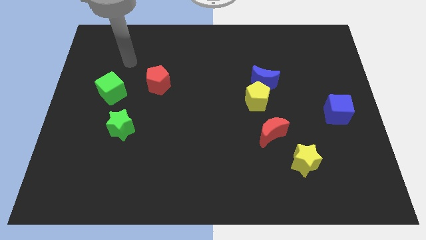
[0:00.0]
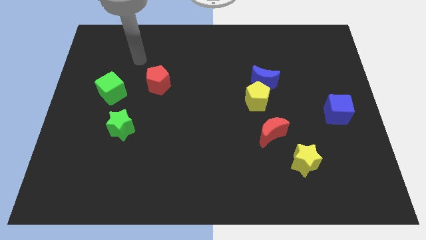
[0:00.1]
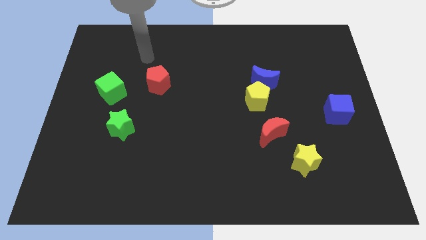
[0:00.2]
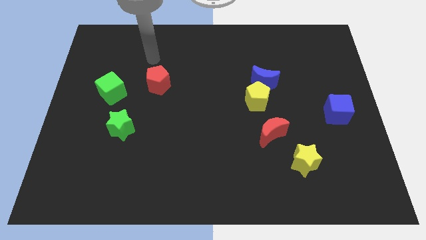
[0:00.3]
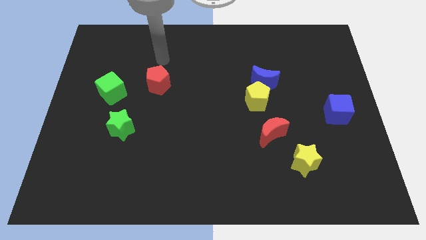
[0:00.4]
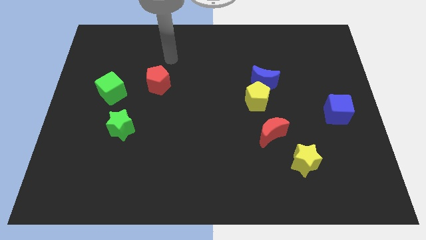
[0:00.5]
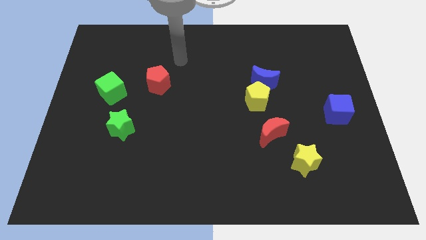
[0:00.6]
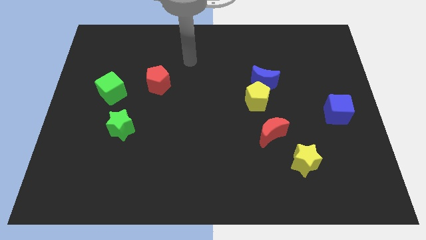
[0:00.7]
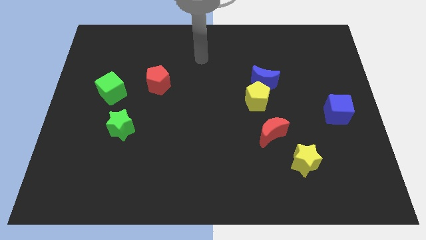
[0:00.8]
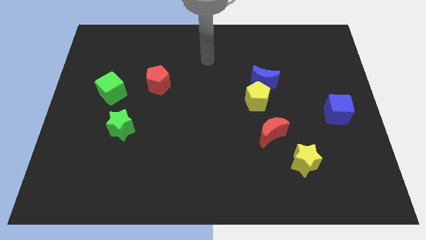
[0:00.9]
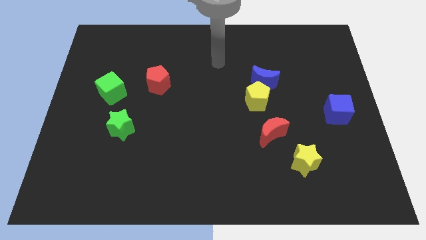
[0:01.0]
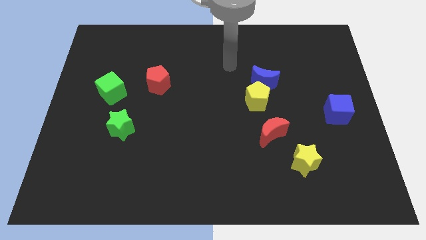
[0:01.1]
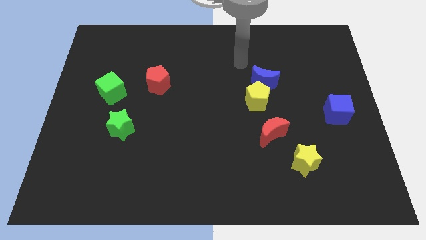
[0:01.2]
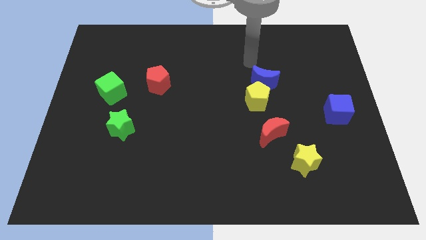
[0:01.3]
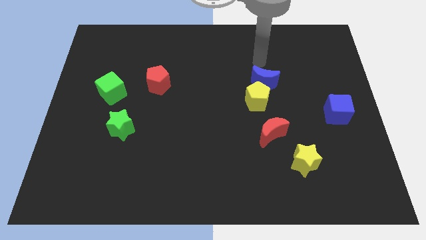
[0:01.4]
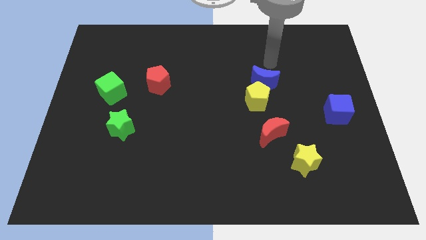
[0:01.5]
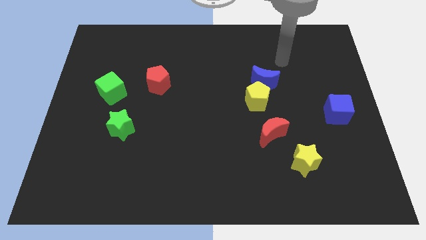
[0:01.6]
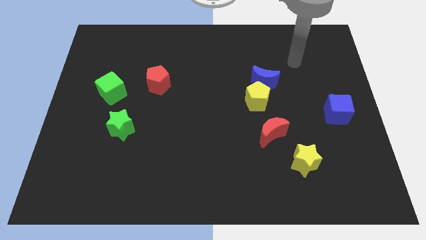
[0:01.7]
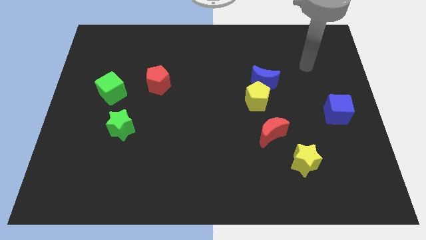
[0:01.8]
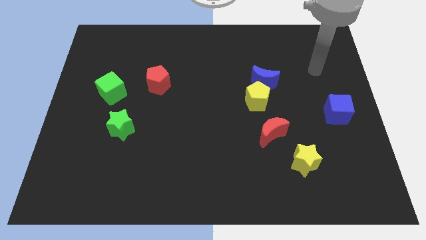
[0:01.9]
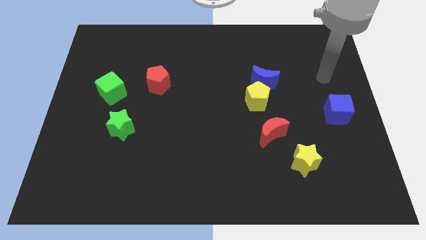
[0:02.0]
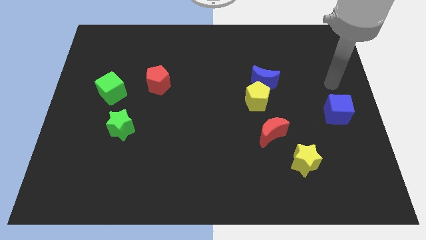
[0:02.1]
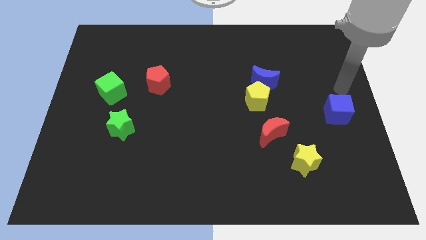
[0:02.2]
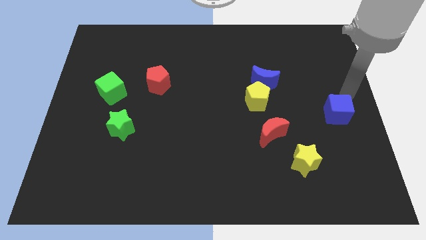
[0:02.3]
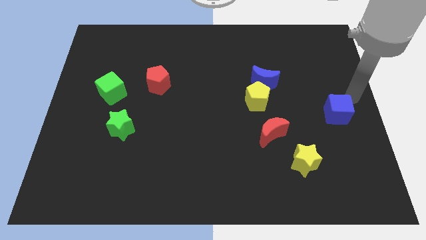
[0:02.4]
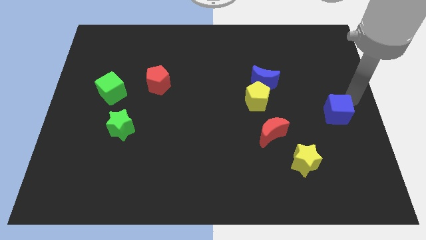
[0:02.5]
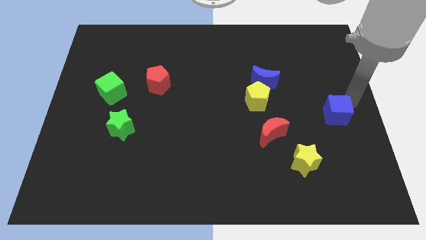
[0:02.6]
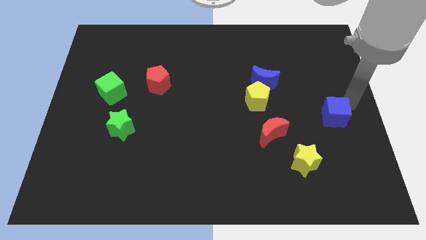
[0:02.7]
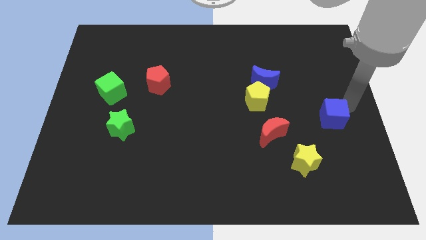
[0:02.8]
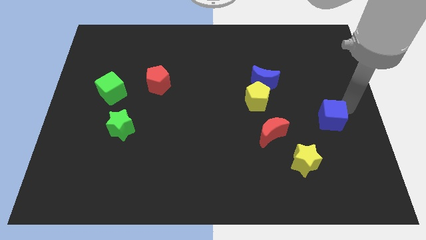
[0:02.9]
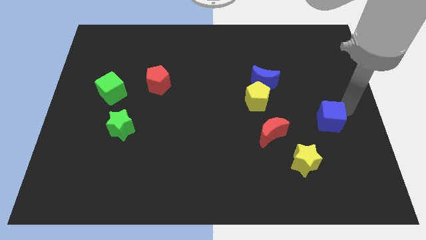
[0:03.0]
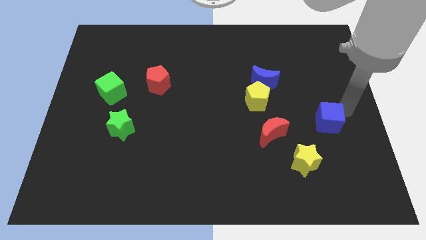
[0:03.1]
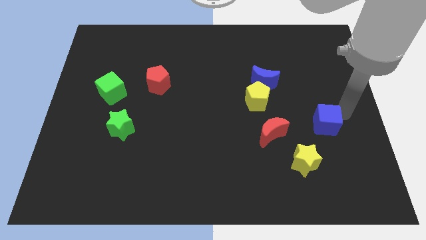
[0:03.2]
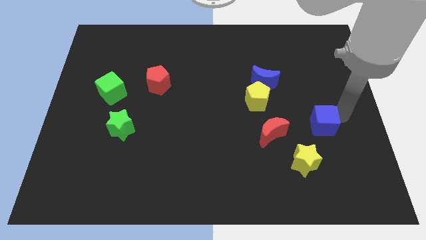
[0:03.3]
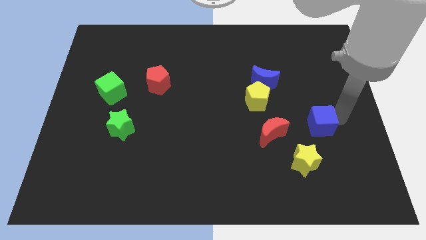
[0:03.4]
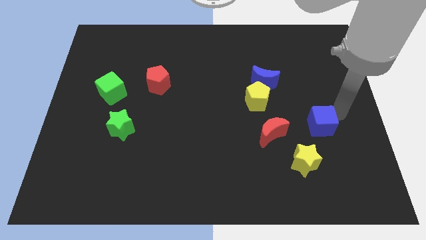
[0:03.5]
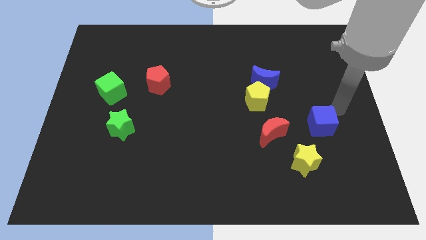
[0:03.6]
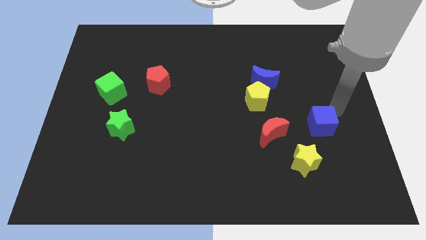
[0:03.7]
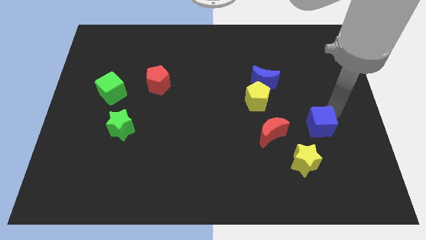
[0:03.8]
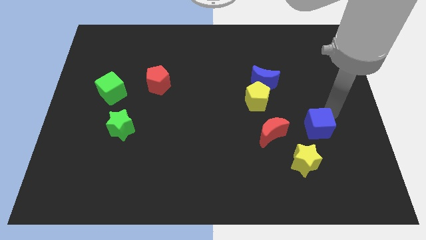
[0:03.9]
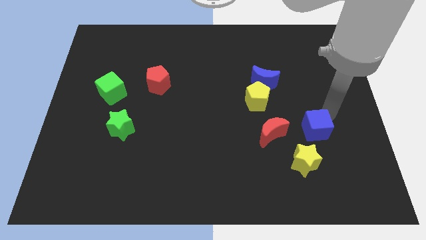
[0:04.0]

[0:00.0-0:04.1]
slightly slide the blue cube downwards and then left

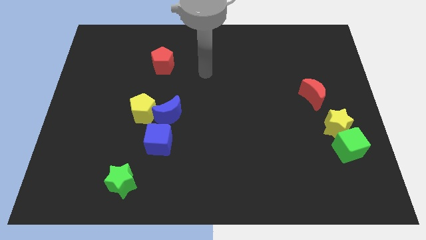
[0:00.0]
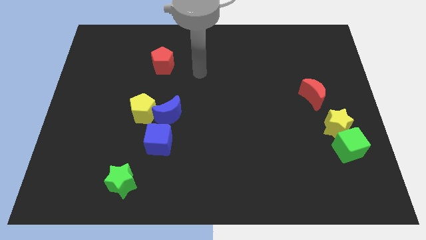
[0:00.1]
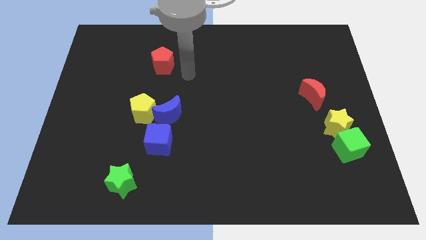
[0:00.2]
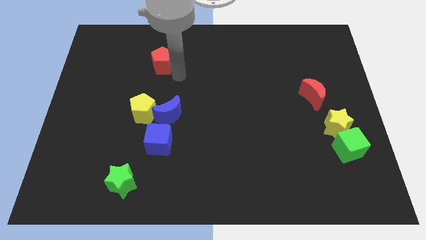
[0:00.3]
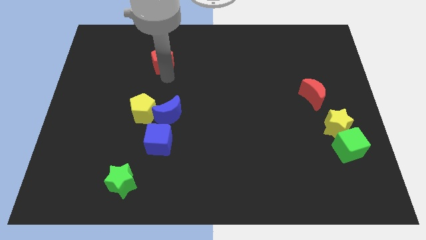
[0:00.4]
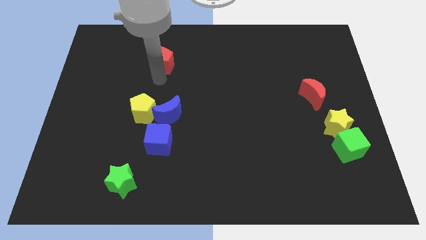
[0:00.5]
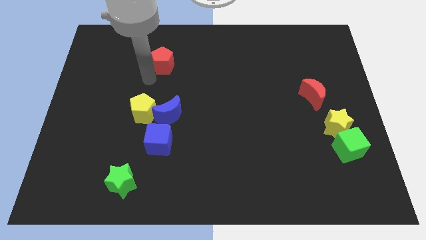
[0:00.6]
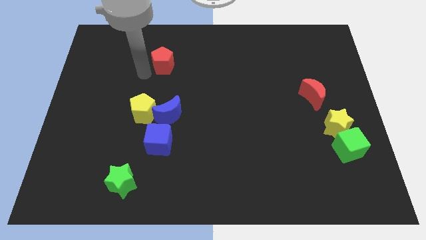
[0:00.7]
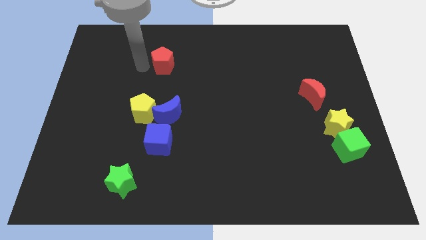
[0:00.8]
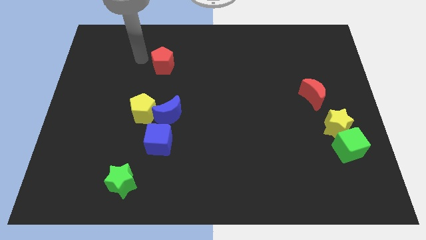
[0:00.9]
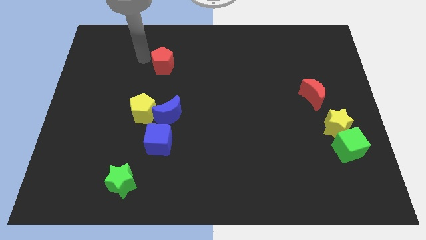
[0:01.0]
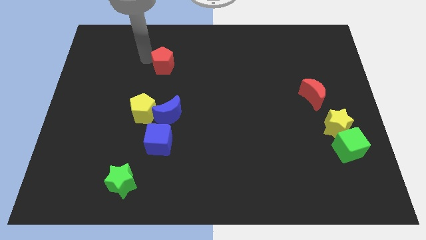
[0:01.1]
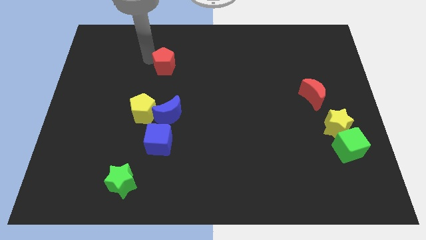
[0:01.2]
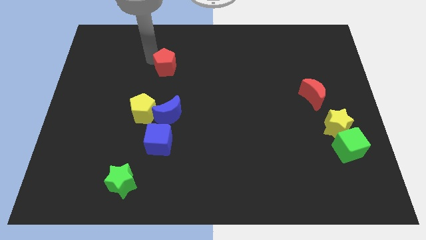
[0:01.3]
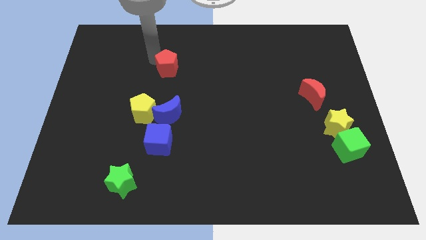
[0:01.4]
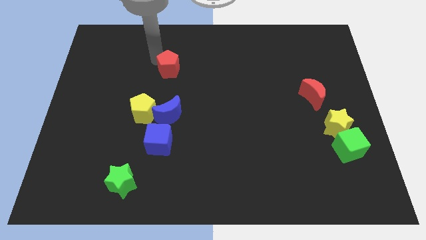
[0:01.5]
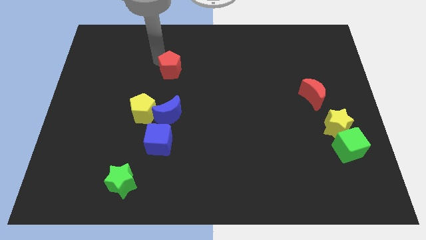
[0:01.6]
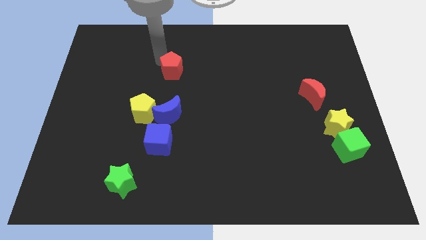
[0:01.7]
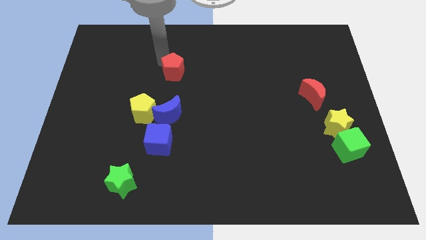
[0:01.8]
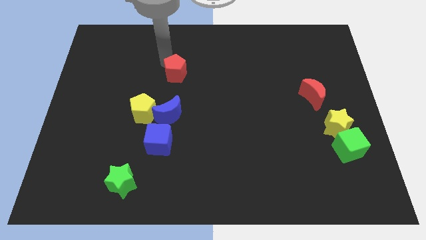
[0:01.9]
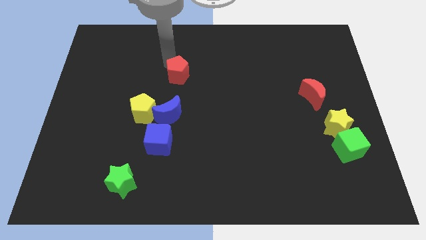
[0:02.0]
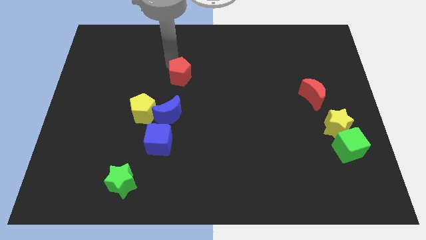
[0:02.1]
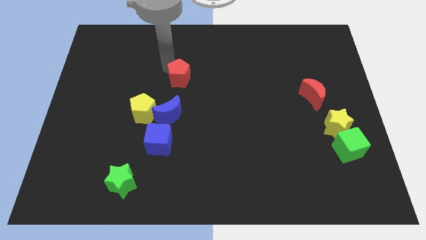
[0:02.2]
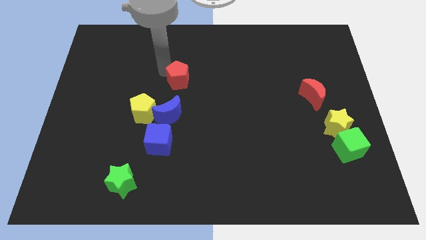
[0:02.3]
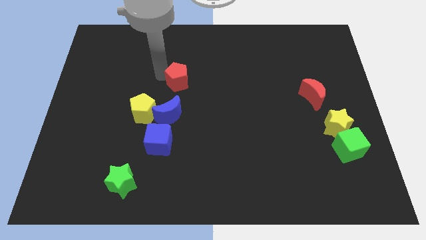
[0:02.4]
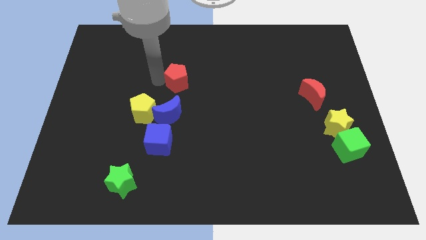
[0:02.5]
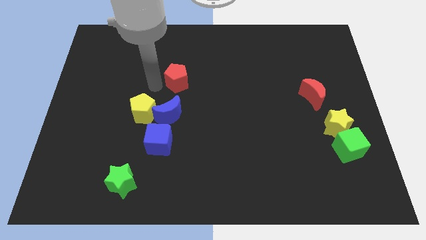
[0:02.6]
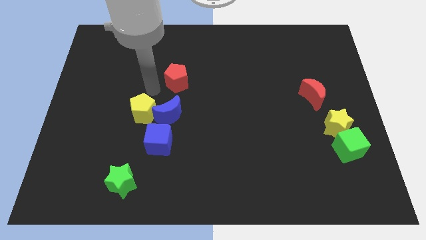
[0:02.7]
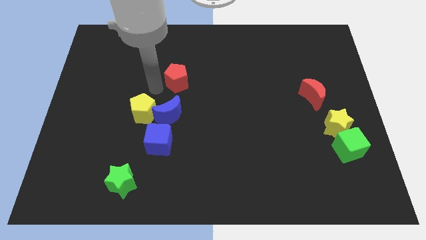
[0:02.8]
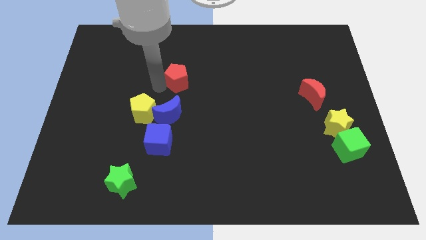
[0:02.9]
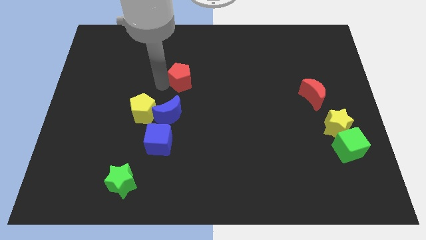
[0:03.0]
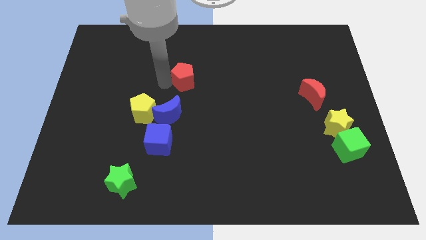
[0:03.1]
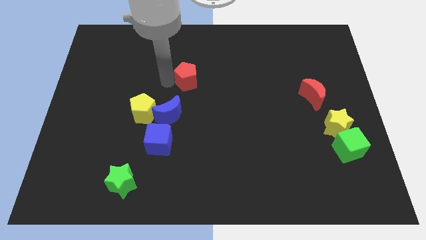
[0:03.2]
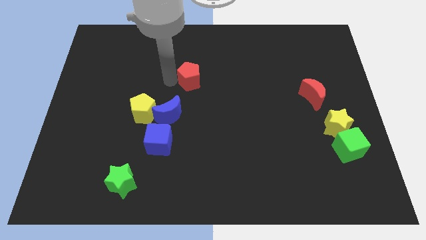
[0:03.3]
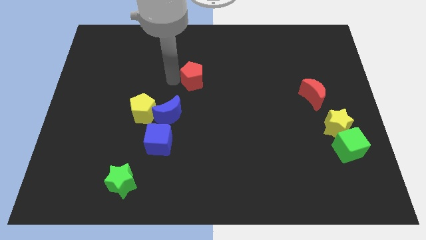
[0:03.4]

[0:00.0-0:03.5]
push the red pentagon a little bit to the right
